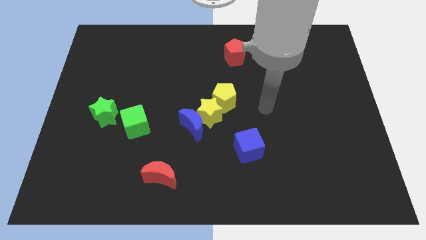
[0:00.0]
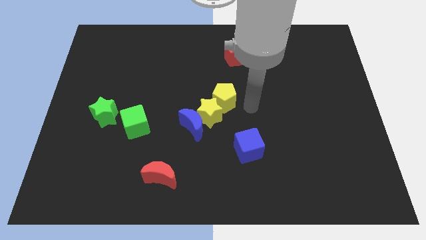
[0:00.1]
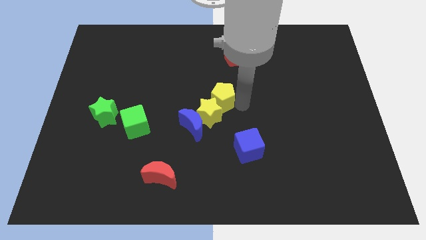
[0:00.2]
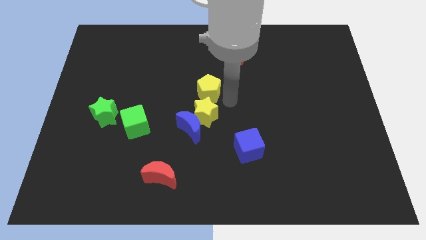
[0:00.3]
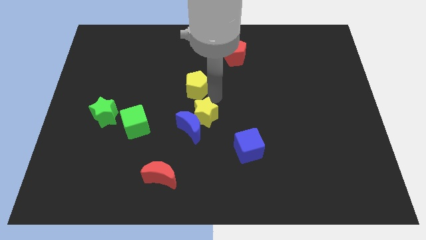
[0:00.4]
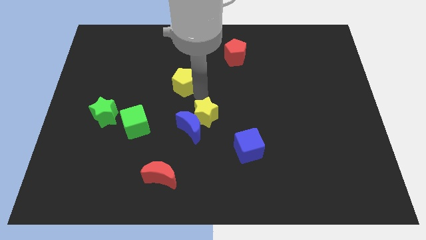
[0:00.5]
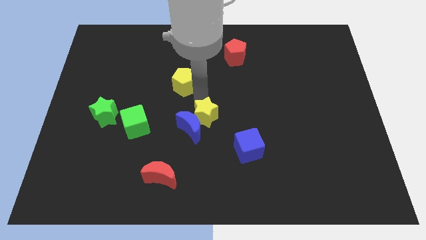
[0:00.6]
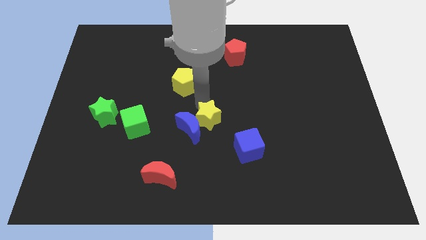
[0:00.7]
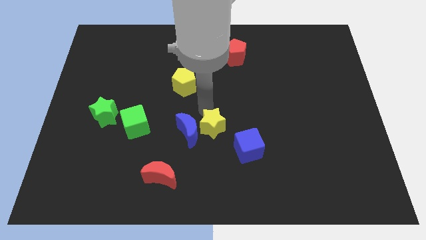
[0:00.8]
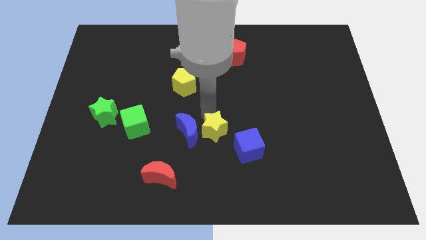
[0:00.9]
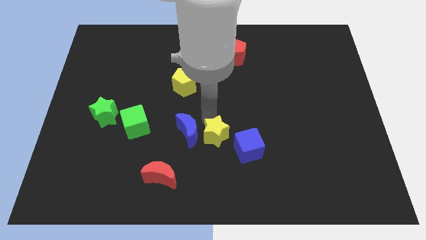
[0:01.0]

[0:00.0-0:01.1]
separate the yellow star from the blue moon and yellow pentagon

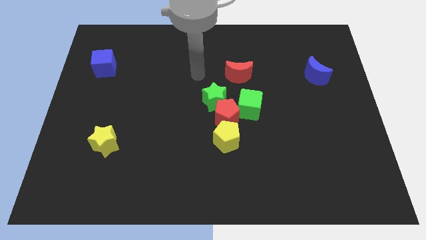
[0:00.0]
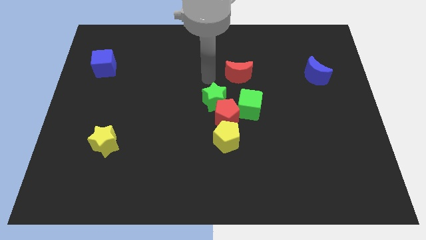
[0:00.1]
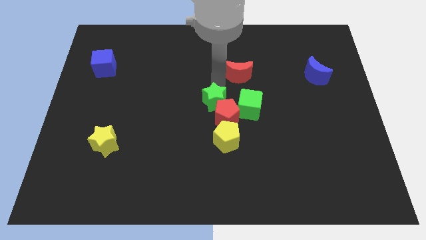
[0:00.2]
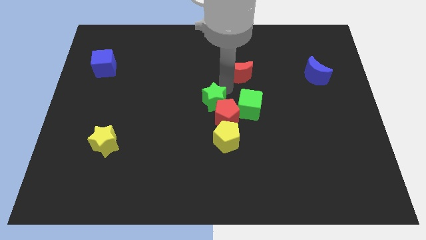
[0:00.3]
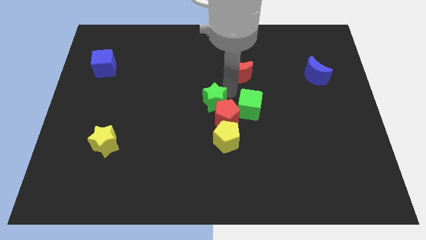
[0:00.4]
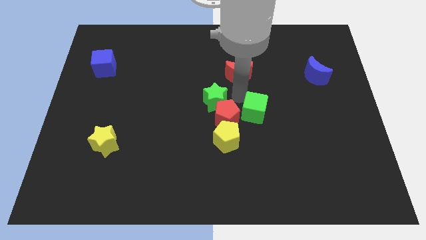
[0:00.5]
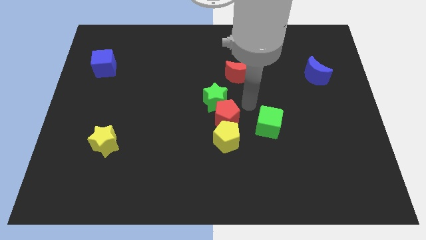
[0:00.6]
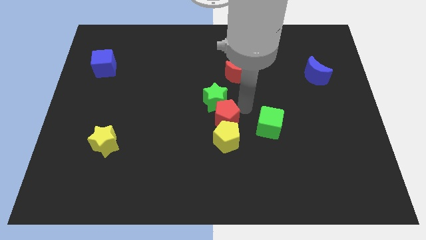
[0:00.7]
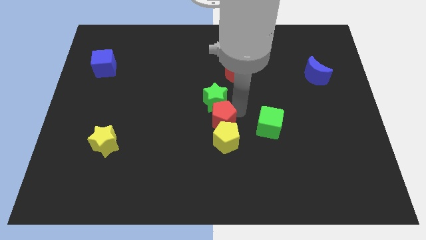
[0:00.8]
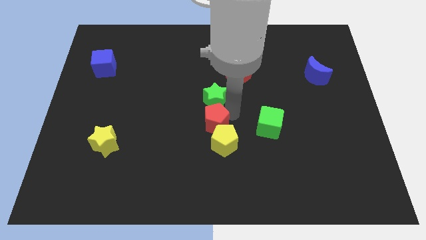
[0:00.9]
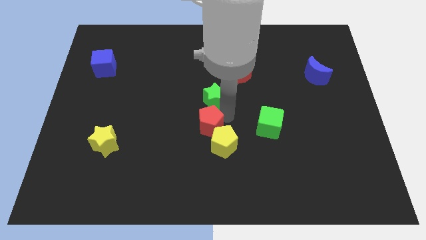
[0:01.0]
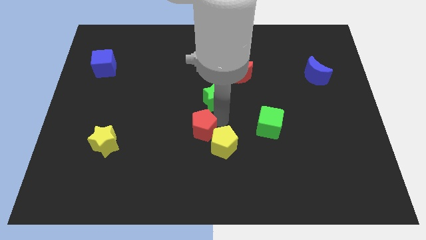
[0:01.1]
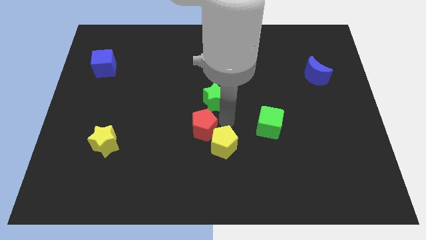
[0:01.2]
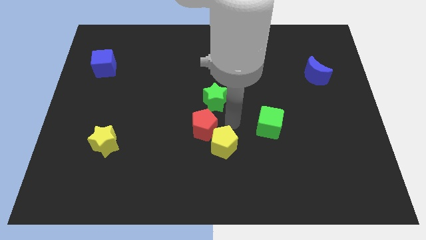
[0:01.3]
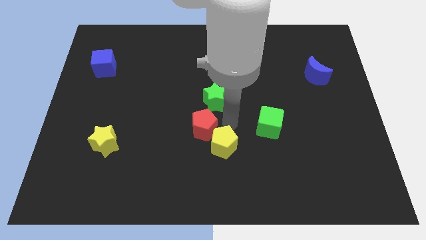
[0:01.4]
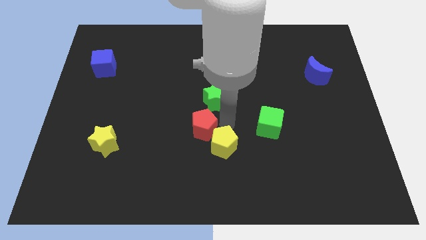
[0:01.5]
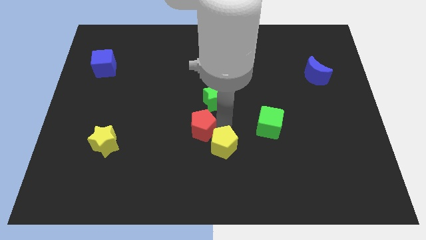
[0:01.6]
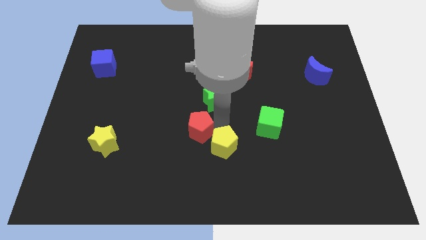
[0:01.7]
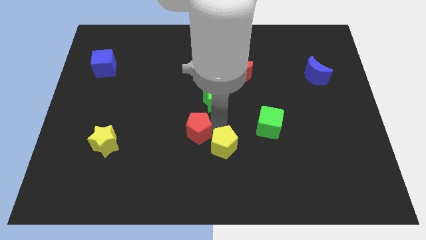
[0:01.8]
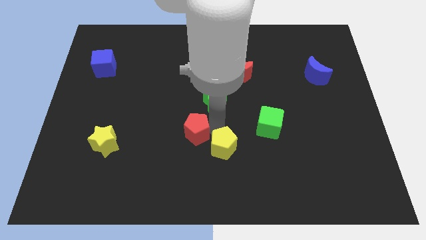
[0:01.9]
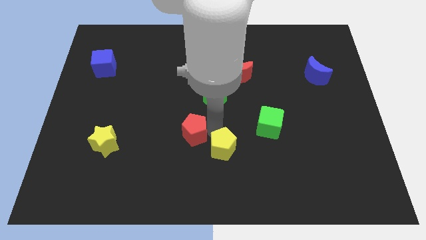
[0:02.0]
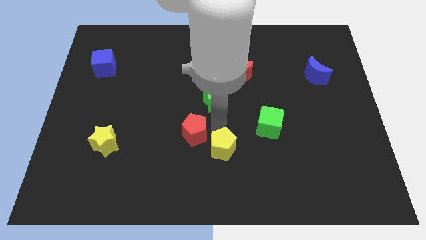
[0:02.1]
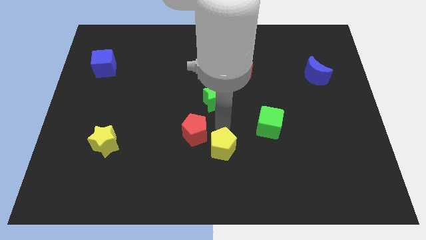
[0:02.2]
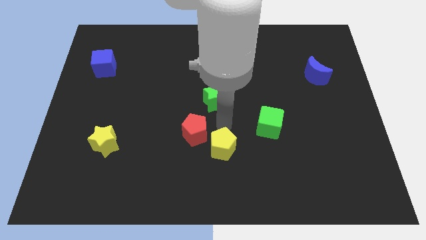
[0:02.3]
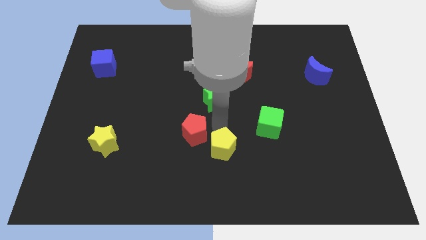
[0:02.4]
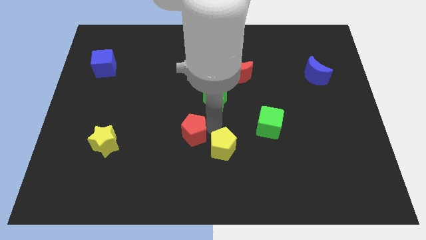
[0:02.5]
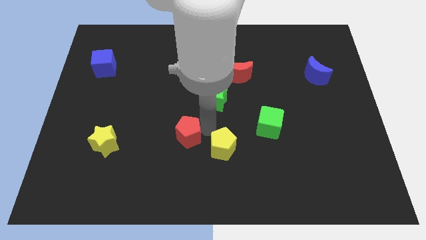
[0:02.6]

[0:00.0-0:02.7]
move the red pentagon away from the green star, green cube, and yellow pentagon

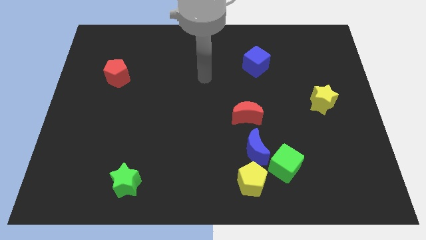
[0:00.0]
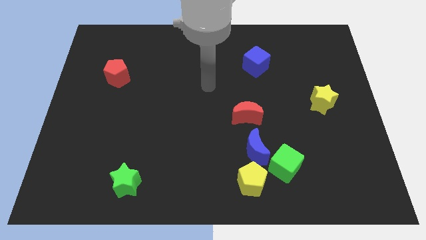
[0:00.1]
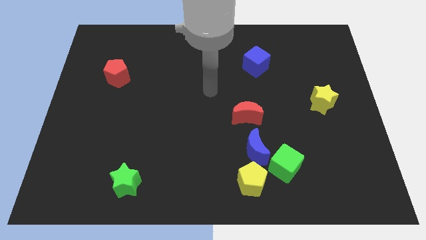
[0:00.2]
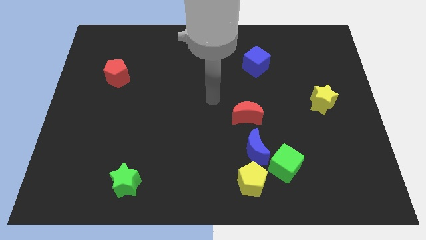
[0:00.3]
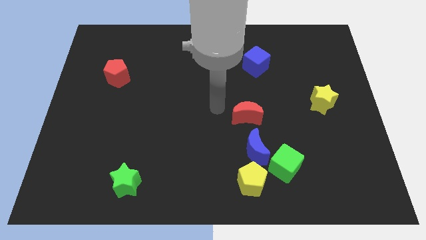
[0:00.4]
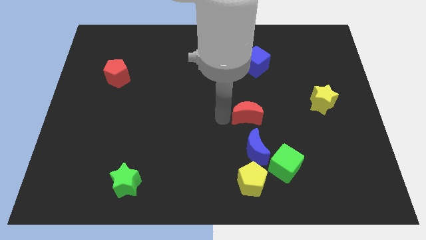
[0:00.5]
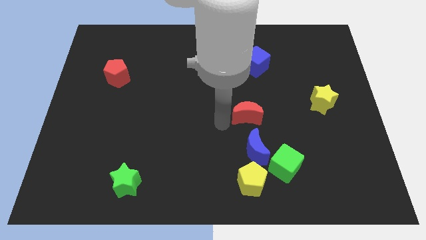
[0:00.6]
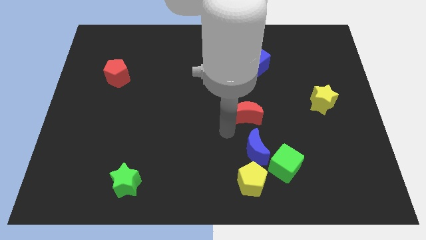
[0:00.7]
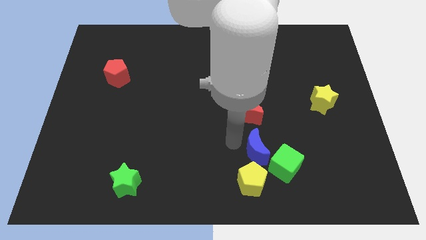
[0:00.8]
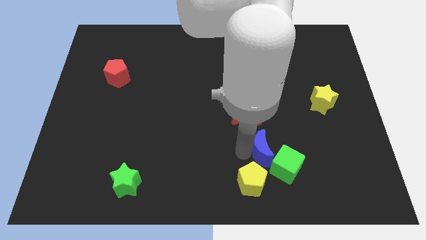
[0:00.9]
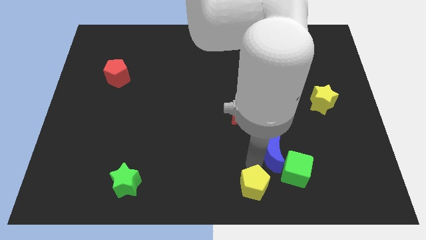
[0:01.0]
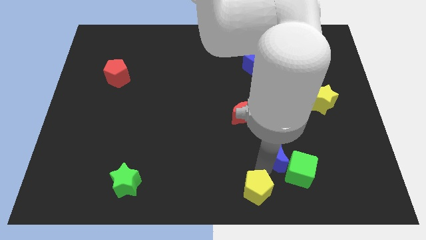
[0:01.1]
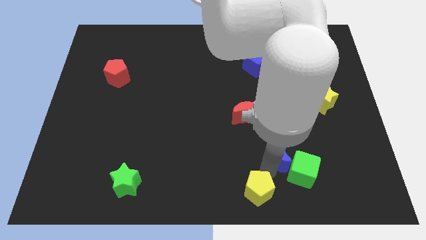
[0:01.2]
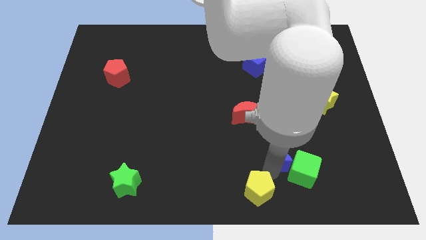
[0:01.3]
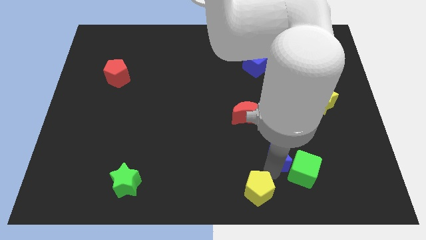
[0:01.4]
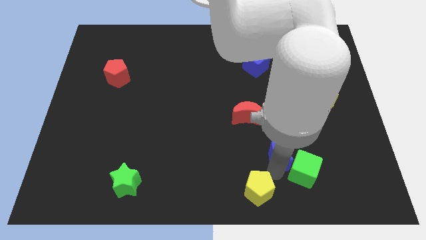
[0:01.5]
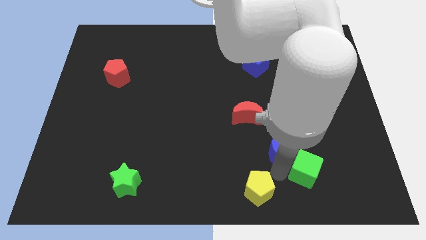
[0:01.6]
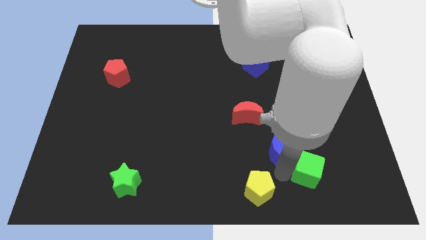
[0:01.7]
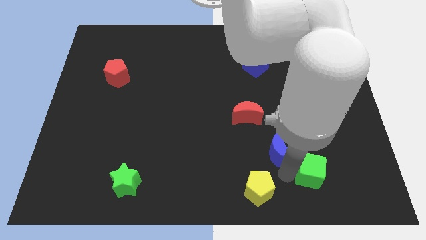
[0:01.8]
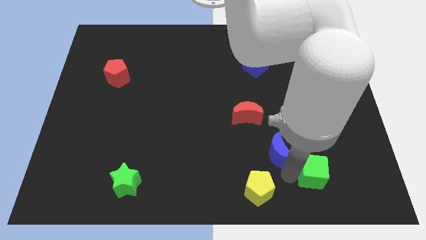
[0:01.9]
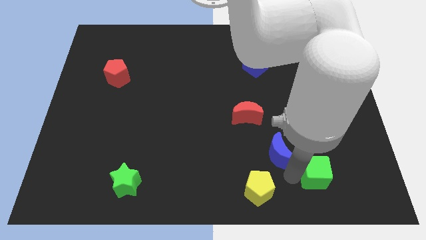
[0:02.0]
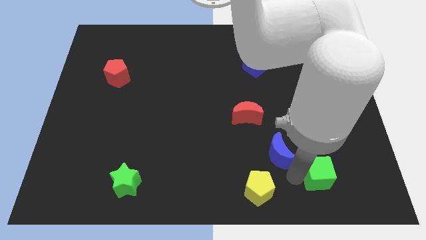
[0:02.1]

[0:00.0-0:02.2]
separate the green cube from the blue moon and yellow pentagon

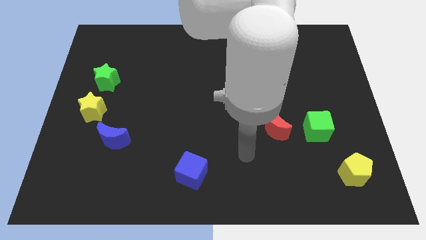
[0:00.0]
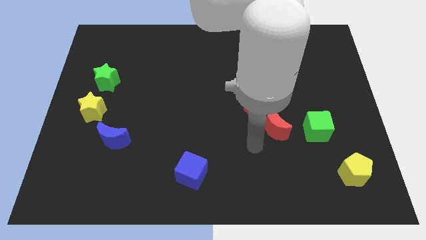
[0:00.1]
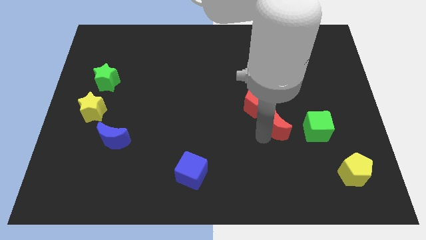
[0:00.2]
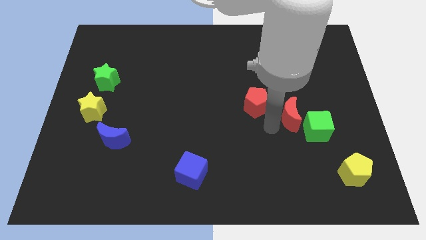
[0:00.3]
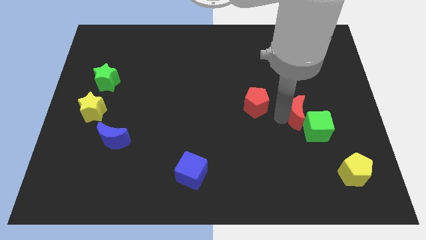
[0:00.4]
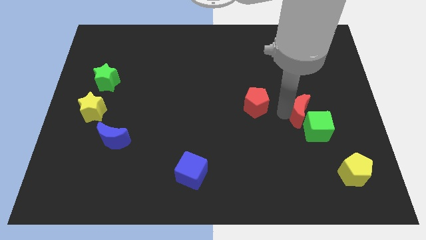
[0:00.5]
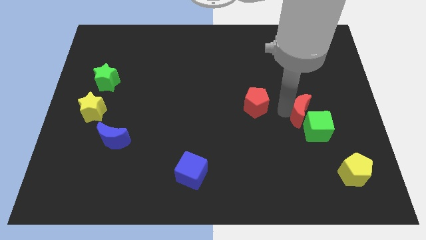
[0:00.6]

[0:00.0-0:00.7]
move the red pentagon away from the red moon

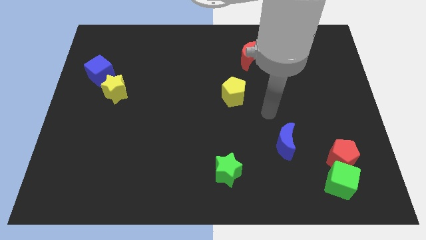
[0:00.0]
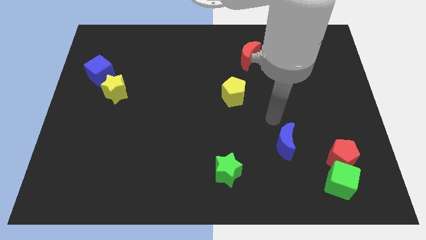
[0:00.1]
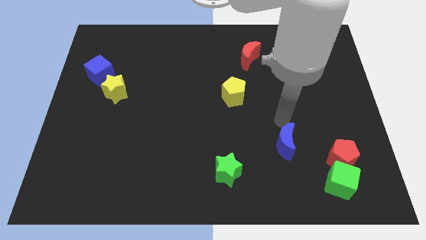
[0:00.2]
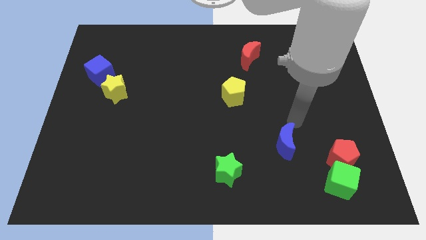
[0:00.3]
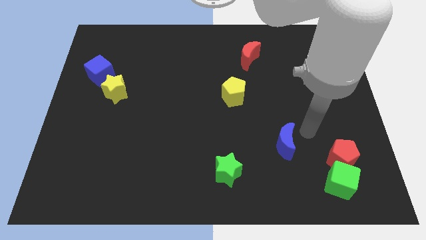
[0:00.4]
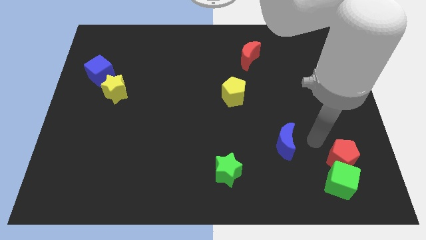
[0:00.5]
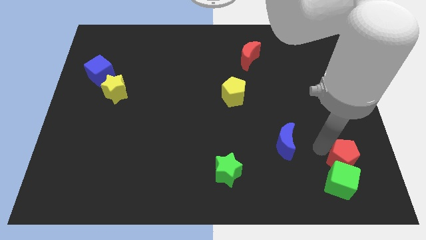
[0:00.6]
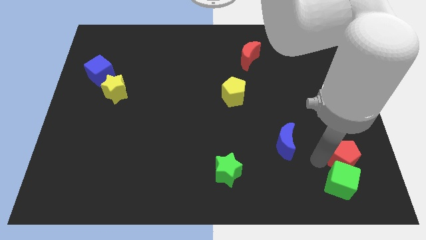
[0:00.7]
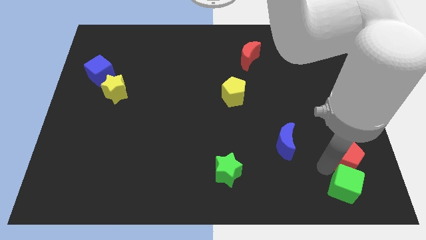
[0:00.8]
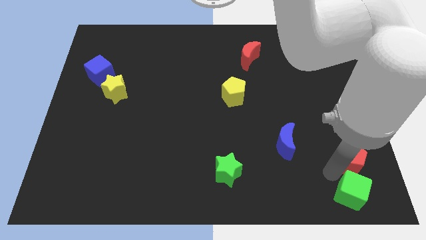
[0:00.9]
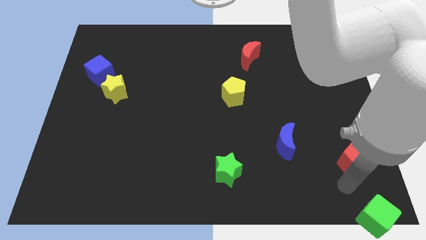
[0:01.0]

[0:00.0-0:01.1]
move the red pentagon away from the green cube
